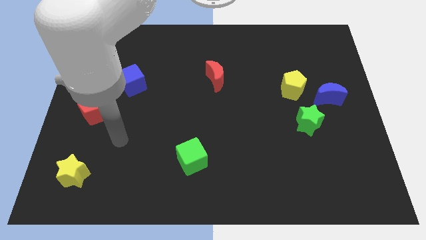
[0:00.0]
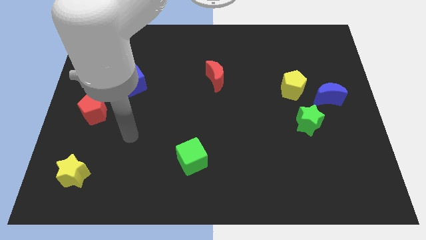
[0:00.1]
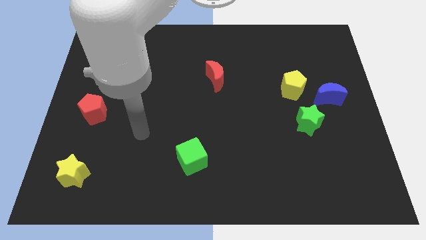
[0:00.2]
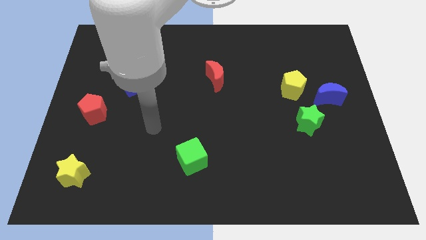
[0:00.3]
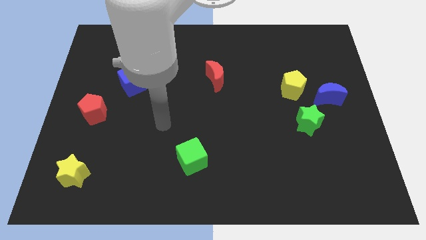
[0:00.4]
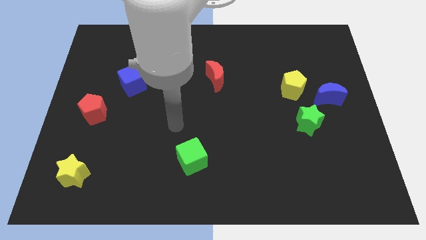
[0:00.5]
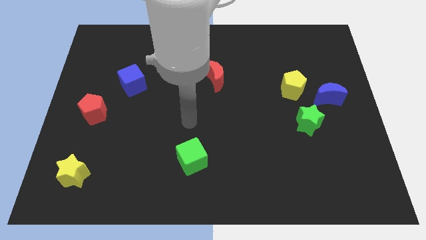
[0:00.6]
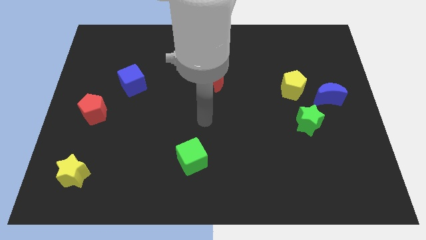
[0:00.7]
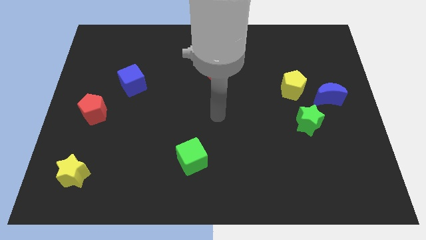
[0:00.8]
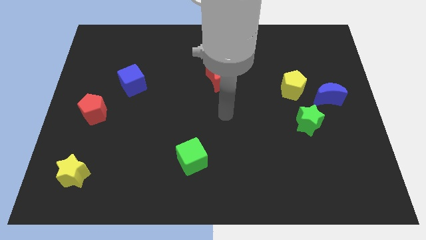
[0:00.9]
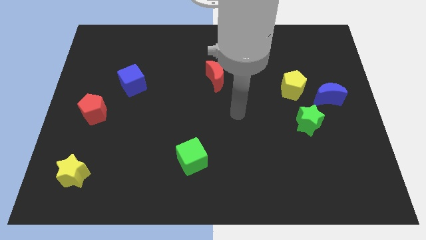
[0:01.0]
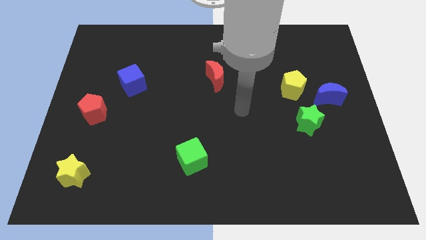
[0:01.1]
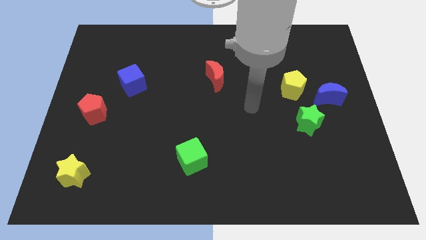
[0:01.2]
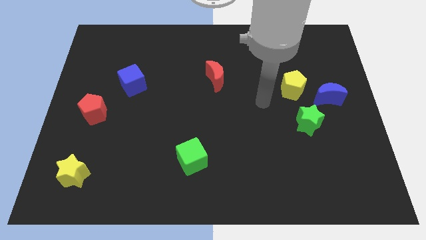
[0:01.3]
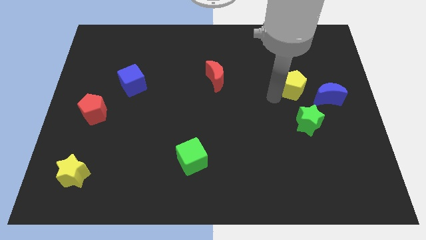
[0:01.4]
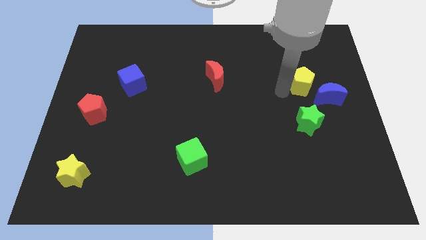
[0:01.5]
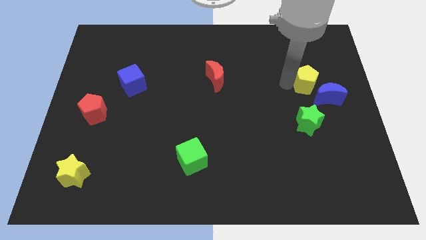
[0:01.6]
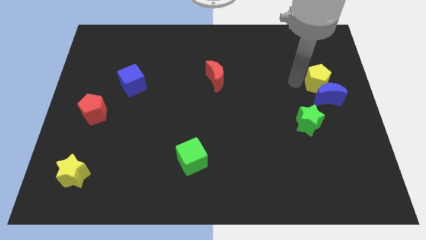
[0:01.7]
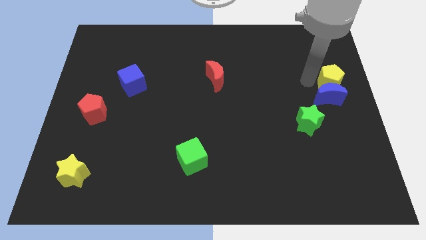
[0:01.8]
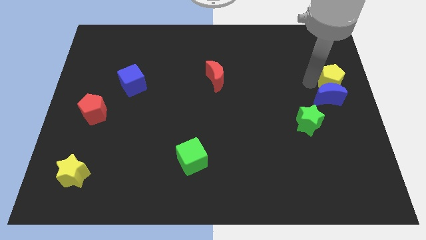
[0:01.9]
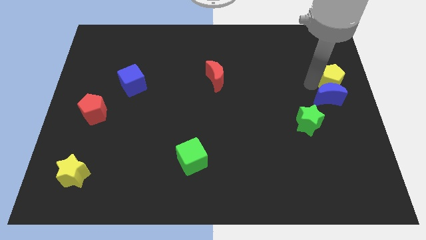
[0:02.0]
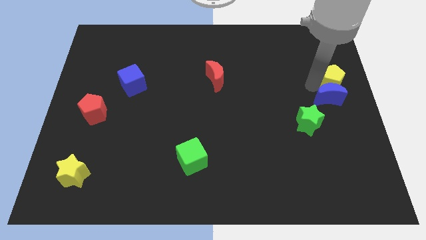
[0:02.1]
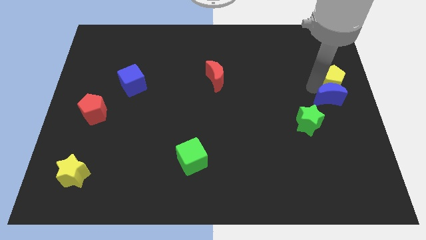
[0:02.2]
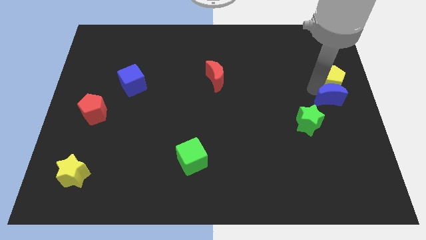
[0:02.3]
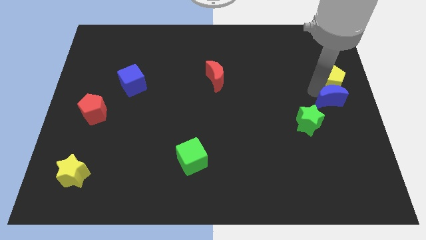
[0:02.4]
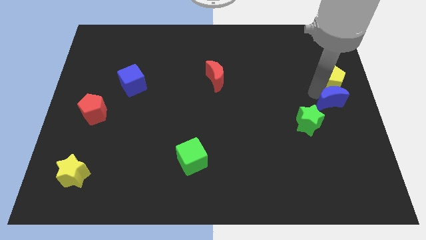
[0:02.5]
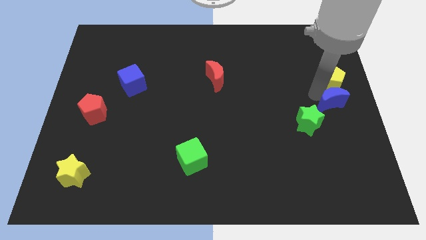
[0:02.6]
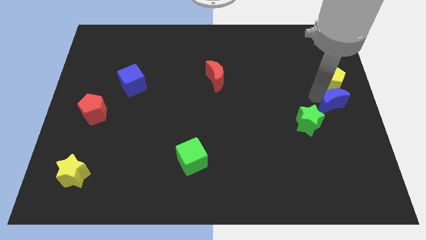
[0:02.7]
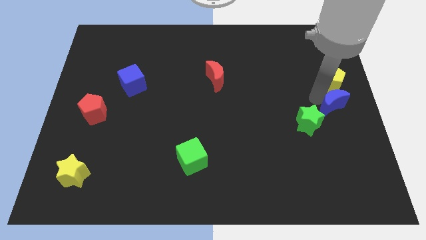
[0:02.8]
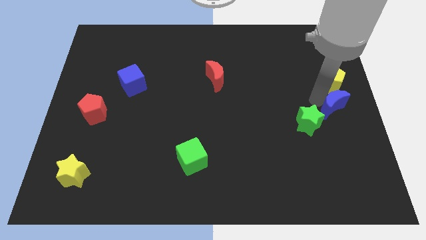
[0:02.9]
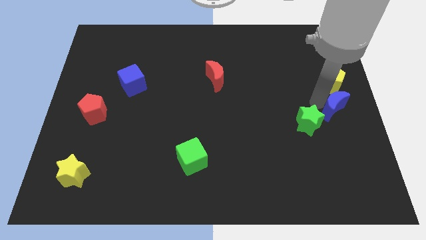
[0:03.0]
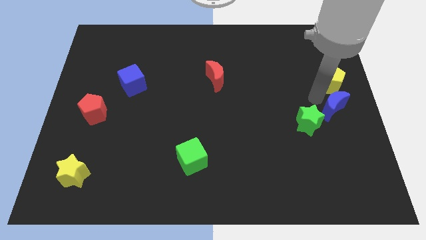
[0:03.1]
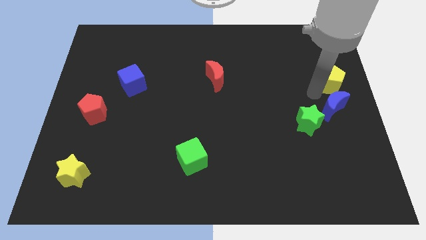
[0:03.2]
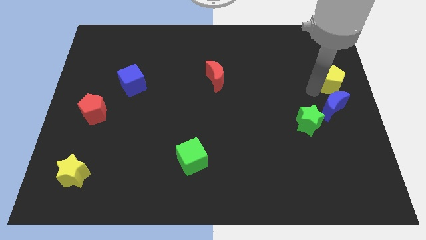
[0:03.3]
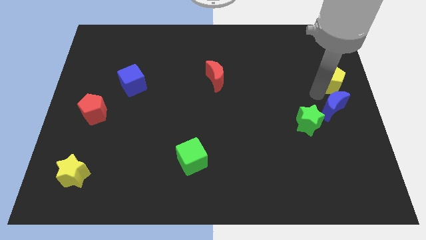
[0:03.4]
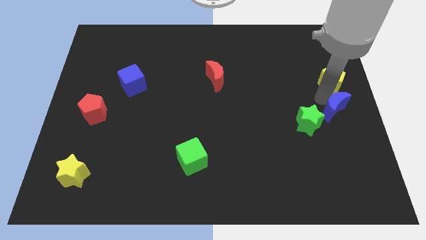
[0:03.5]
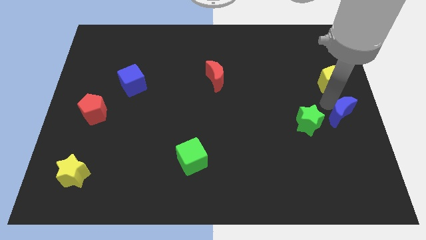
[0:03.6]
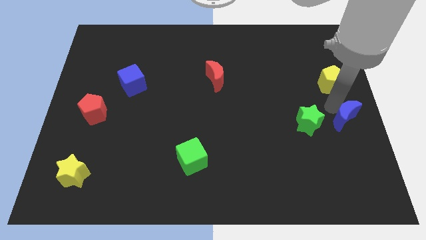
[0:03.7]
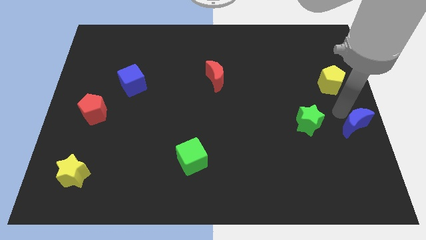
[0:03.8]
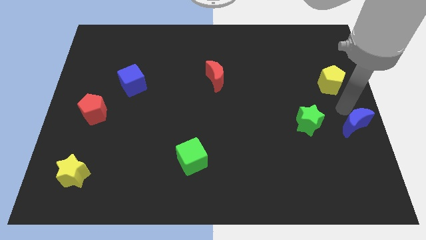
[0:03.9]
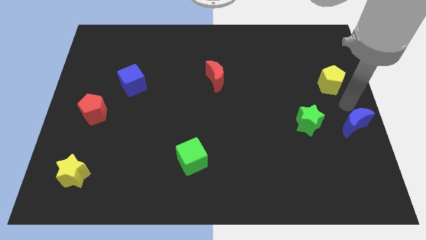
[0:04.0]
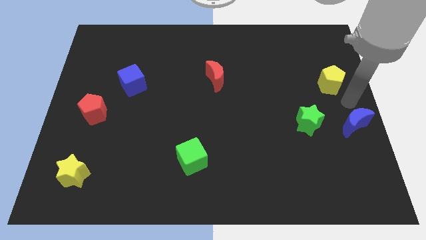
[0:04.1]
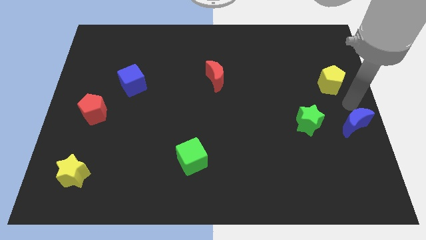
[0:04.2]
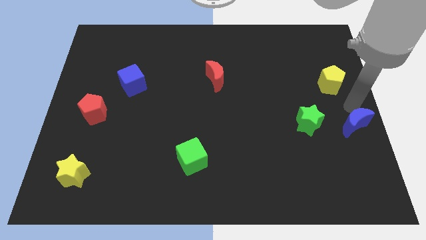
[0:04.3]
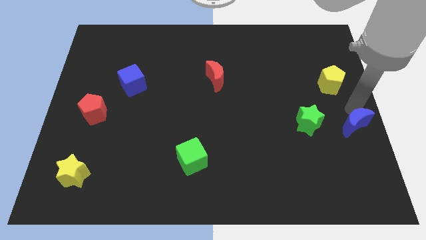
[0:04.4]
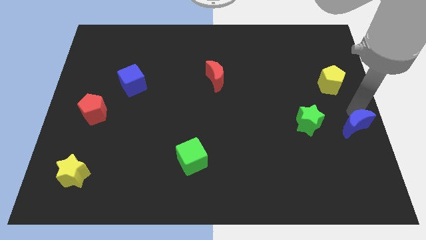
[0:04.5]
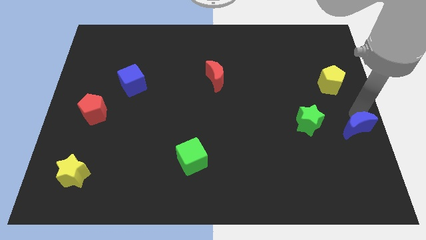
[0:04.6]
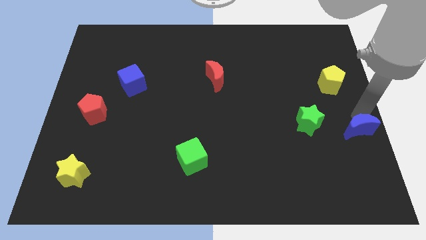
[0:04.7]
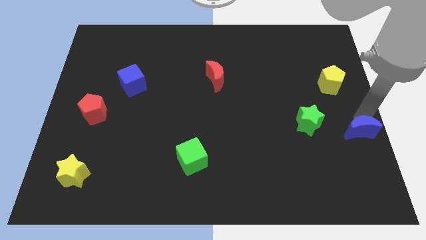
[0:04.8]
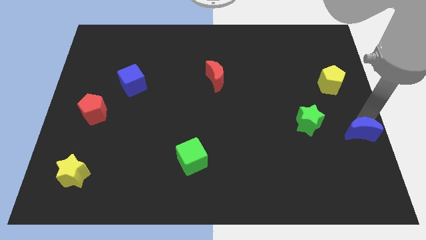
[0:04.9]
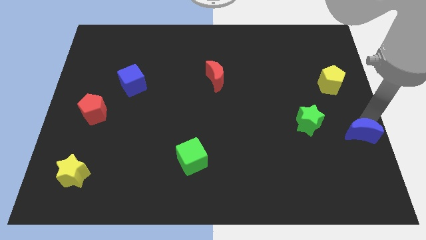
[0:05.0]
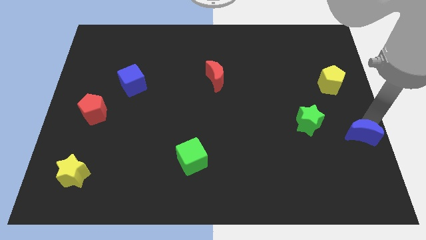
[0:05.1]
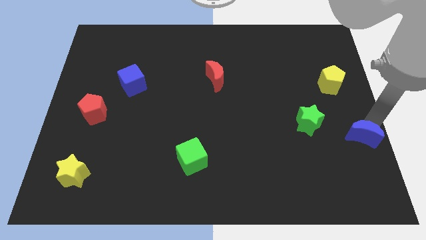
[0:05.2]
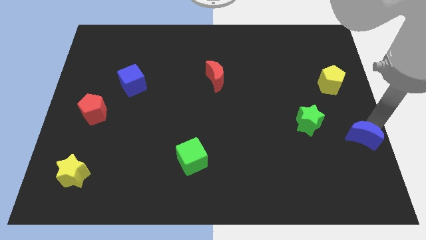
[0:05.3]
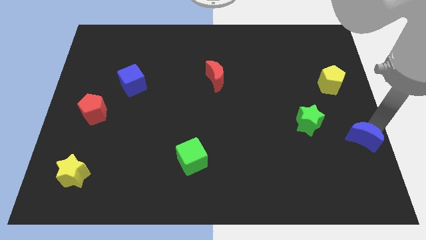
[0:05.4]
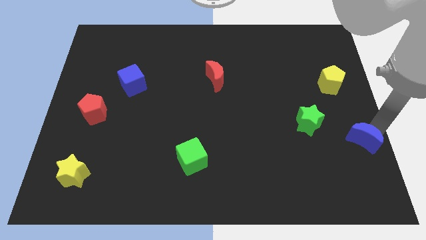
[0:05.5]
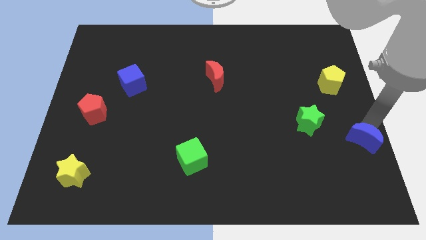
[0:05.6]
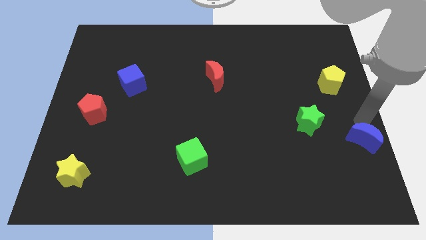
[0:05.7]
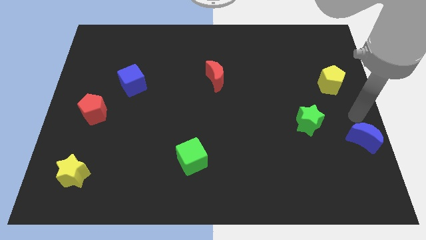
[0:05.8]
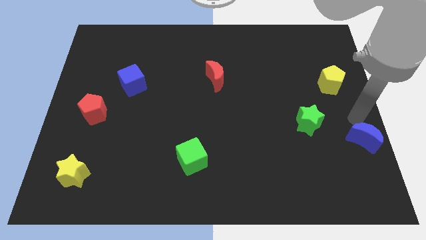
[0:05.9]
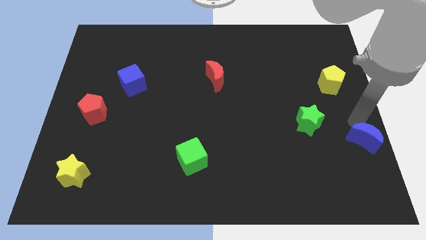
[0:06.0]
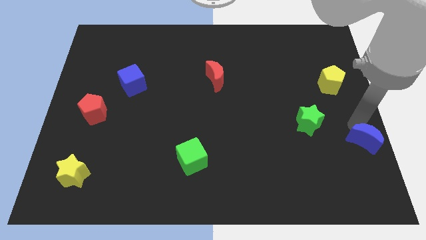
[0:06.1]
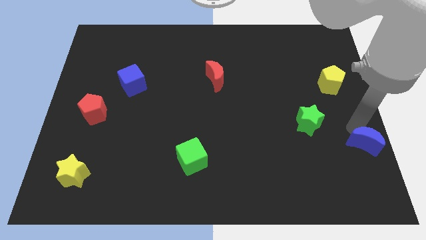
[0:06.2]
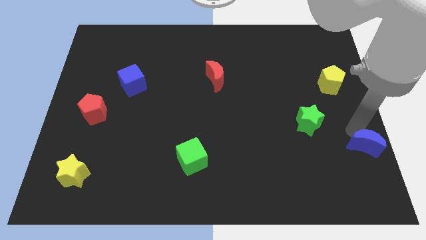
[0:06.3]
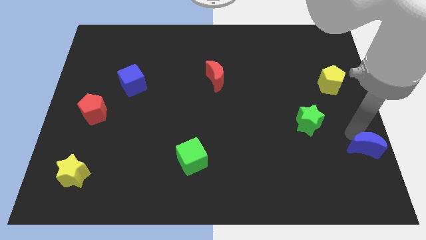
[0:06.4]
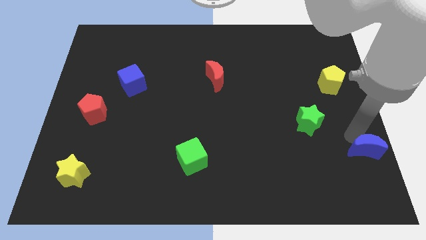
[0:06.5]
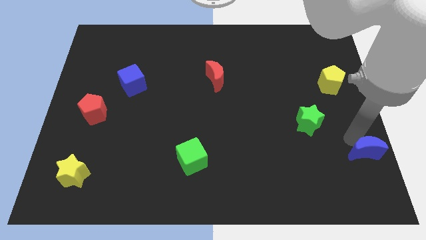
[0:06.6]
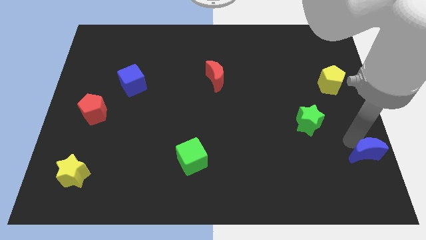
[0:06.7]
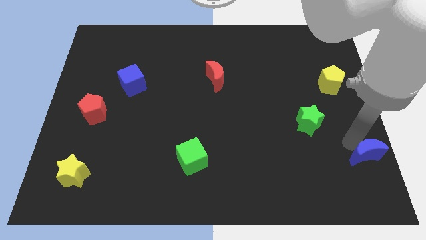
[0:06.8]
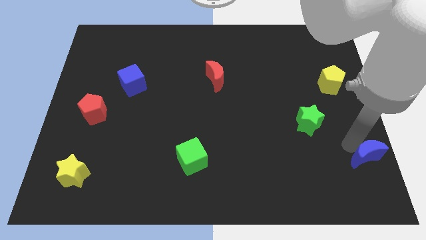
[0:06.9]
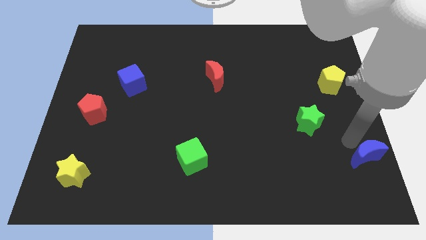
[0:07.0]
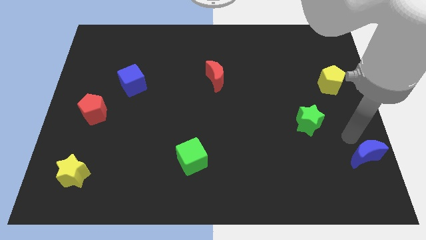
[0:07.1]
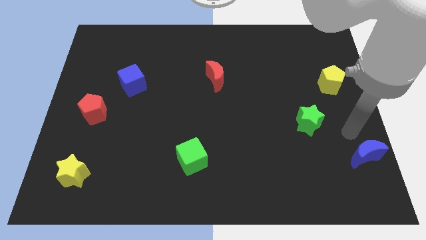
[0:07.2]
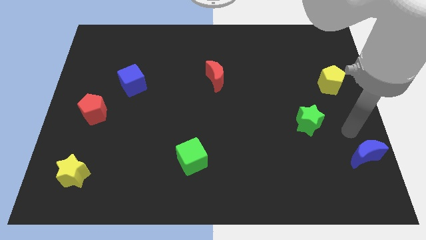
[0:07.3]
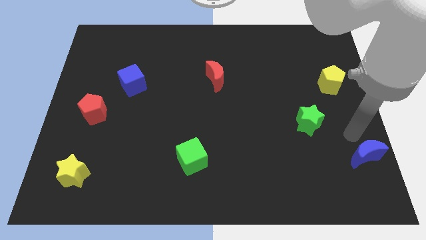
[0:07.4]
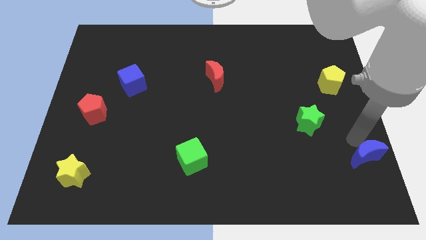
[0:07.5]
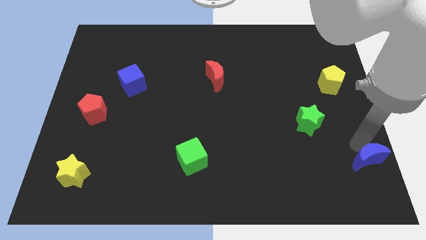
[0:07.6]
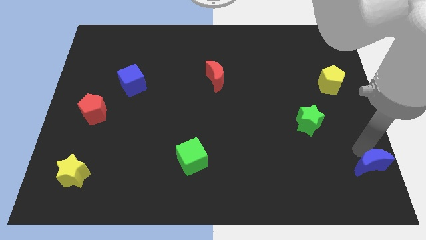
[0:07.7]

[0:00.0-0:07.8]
slide the blue moon to the bottom right of the board
